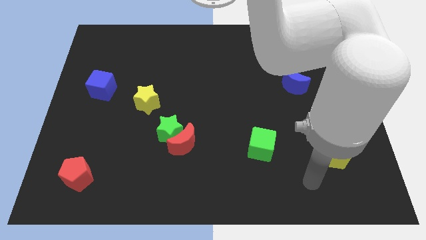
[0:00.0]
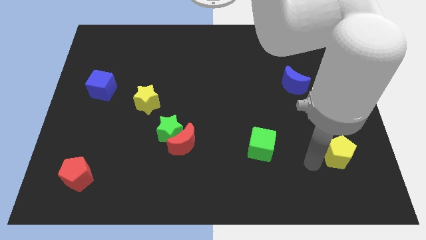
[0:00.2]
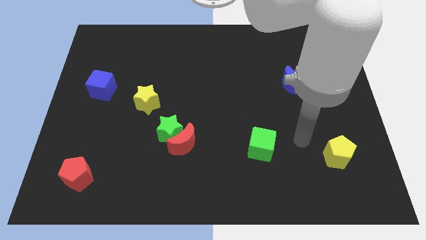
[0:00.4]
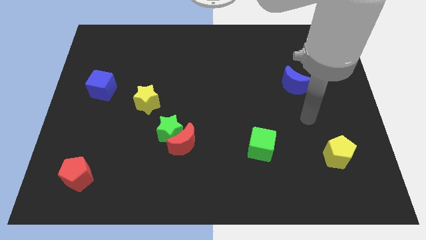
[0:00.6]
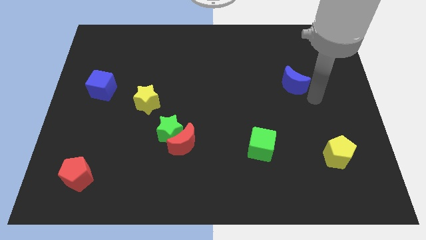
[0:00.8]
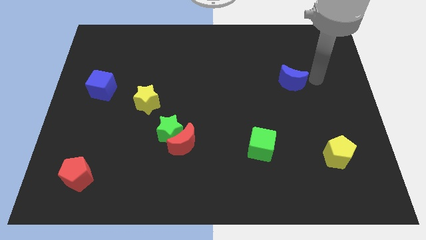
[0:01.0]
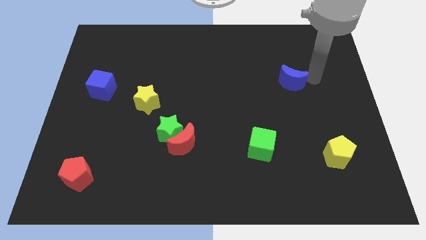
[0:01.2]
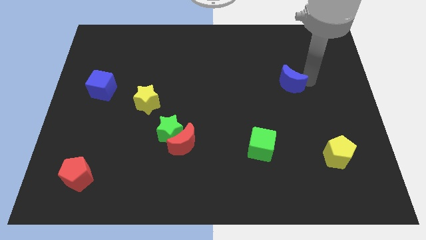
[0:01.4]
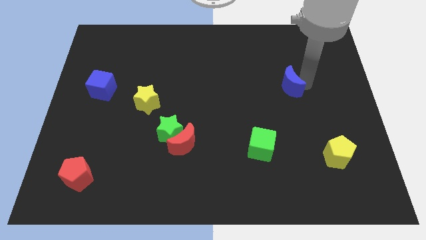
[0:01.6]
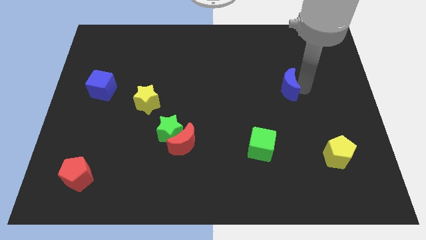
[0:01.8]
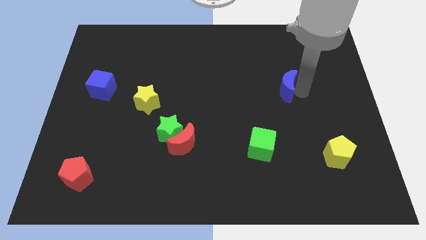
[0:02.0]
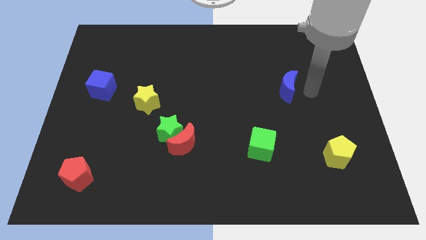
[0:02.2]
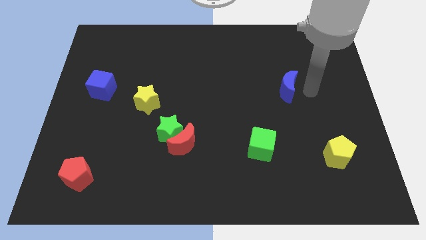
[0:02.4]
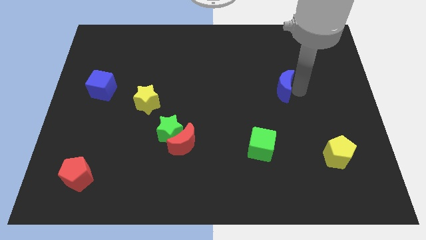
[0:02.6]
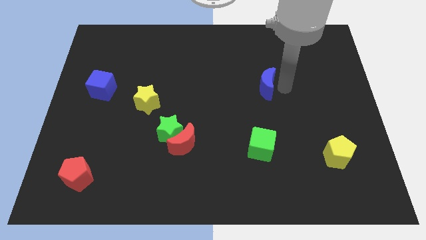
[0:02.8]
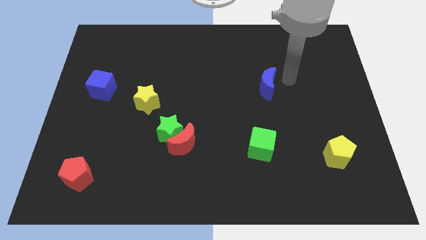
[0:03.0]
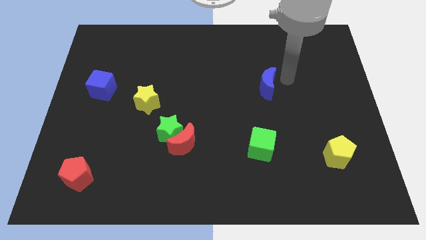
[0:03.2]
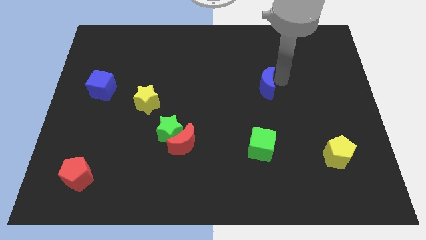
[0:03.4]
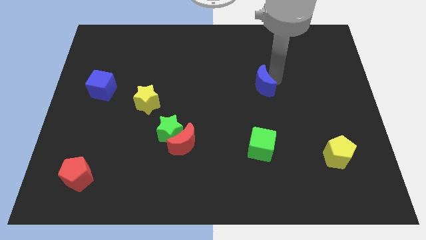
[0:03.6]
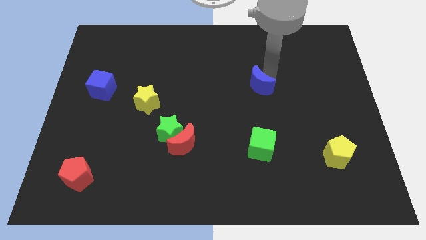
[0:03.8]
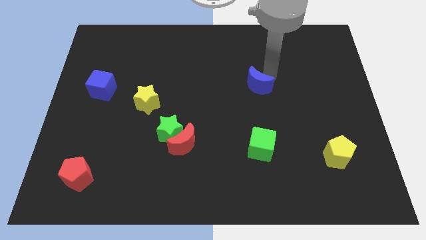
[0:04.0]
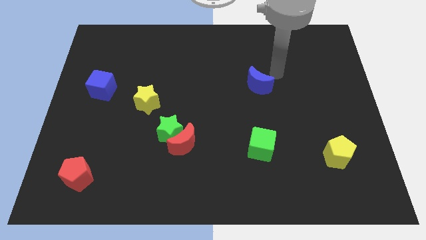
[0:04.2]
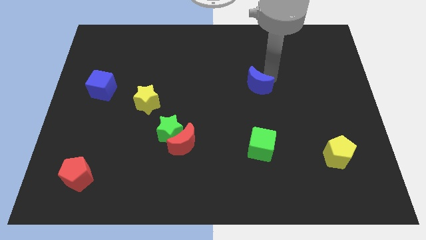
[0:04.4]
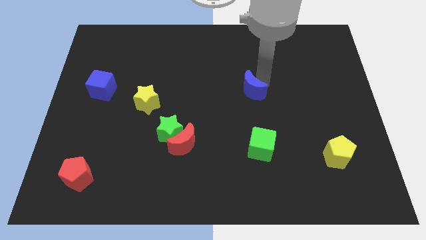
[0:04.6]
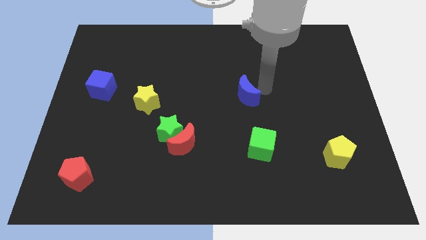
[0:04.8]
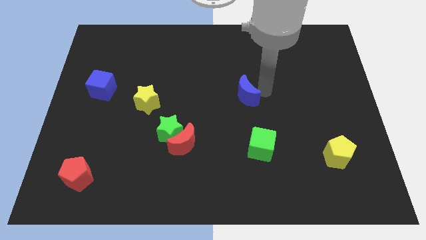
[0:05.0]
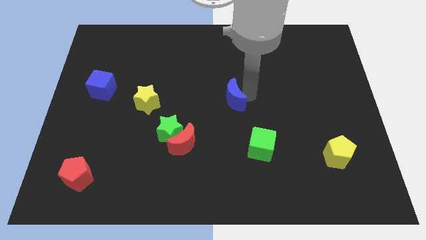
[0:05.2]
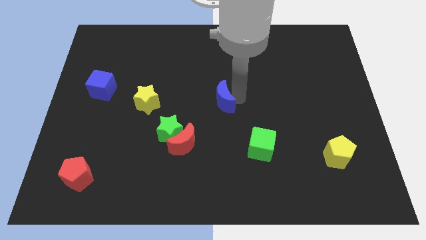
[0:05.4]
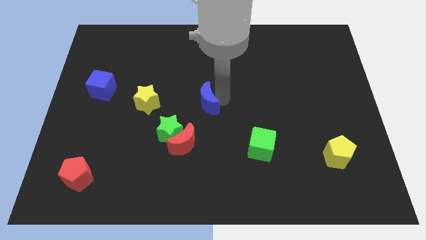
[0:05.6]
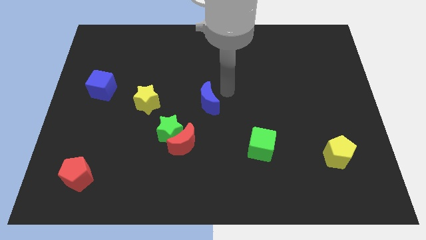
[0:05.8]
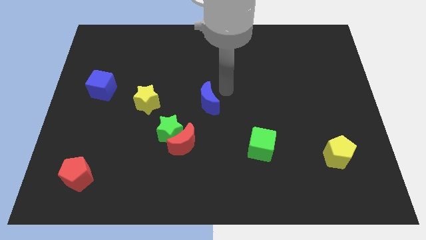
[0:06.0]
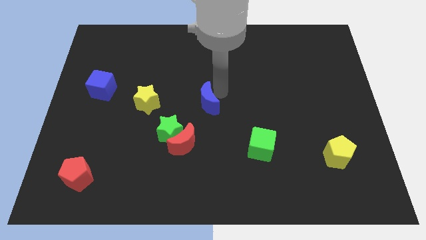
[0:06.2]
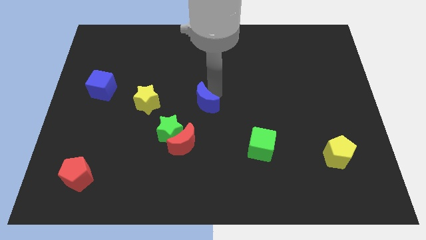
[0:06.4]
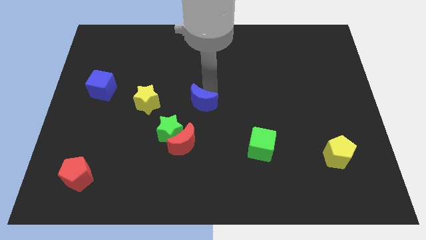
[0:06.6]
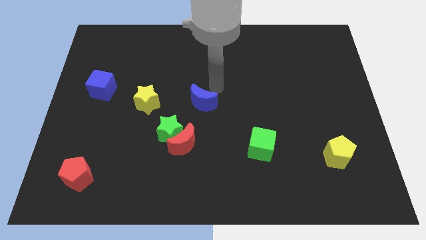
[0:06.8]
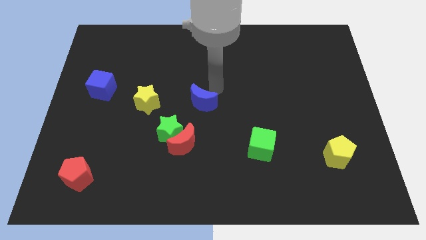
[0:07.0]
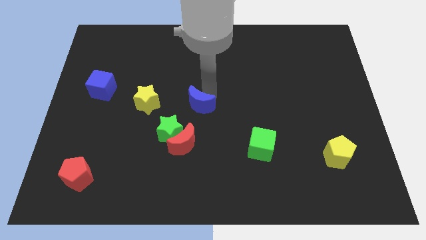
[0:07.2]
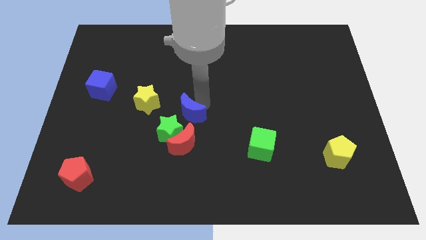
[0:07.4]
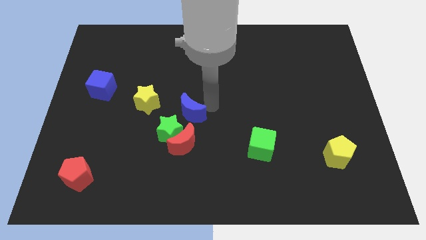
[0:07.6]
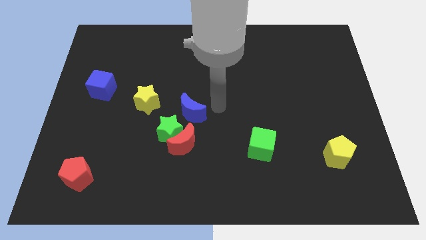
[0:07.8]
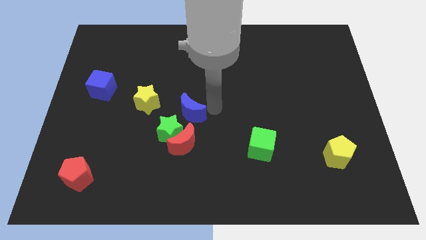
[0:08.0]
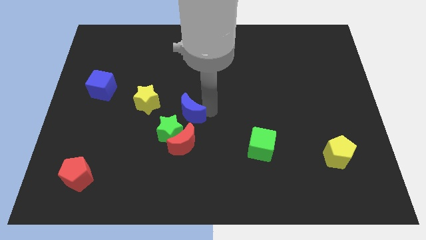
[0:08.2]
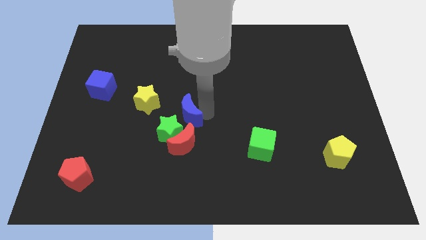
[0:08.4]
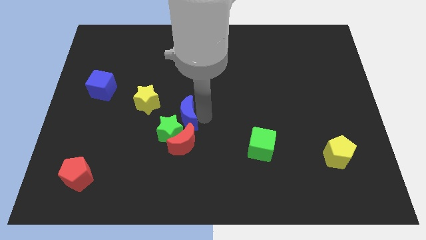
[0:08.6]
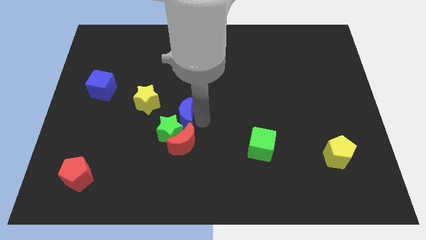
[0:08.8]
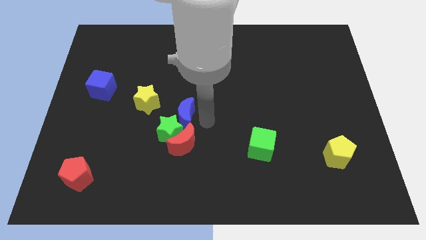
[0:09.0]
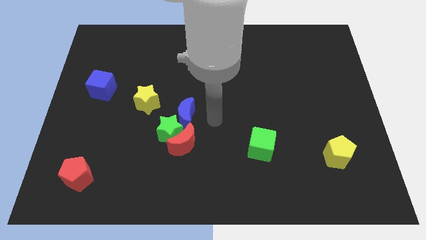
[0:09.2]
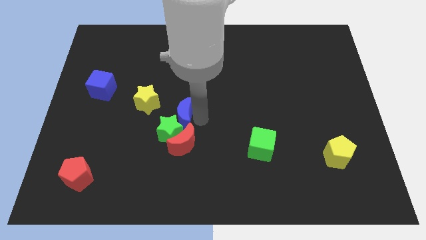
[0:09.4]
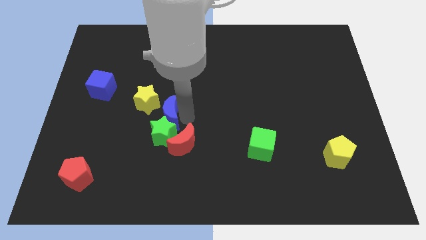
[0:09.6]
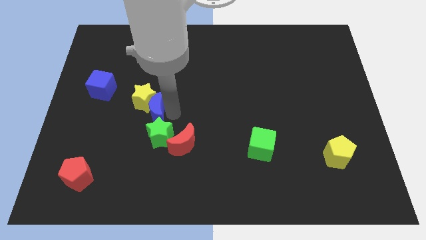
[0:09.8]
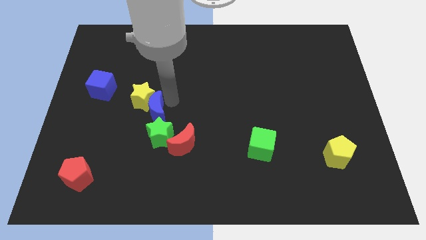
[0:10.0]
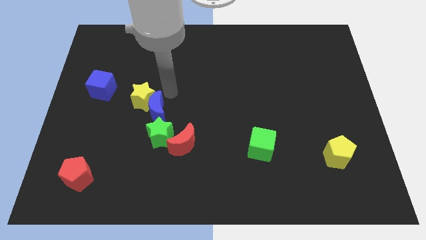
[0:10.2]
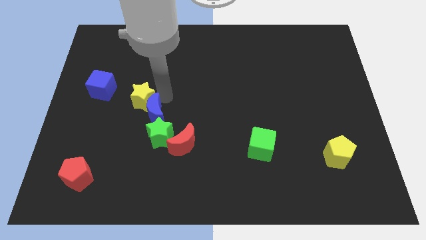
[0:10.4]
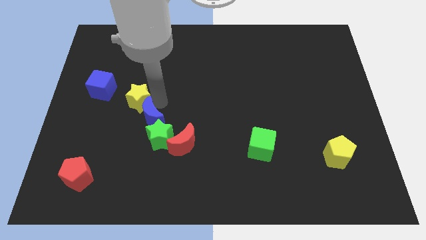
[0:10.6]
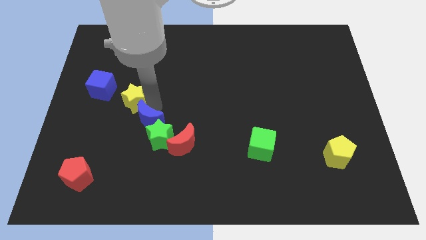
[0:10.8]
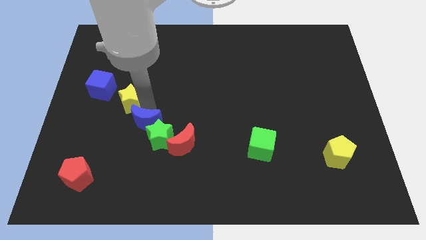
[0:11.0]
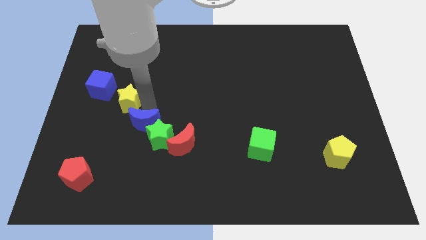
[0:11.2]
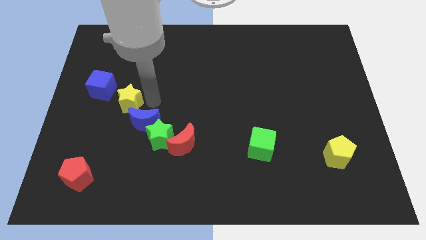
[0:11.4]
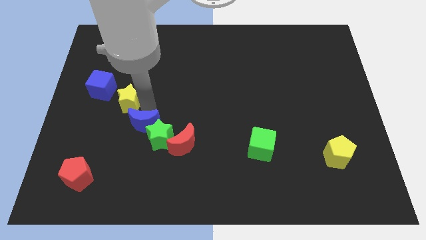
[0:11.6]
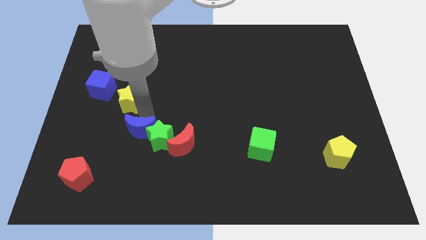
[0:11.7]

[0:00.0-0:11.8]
push the blue moon just left of the red moon

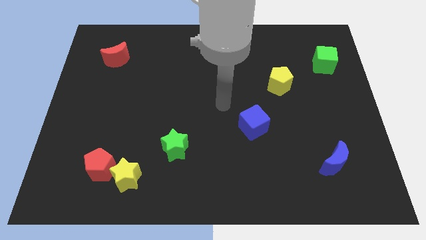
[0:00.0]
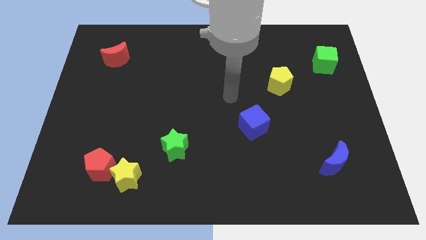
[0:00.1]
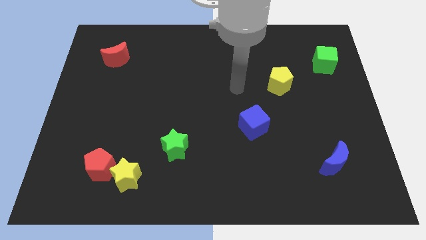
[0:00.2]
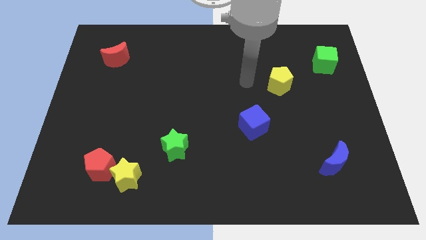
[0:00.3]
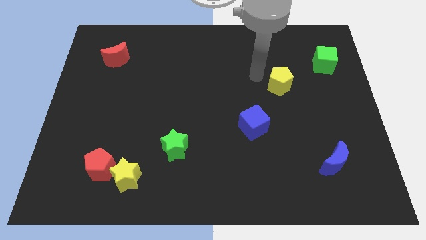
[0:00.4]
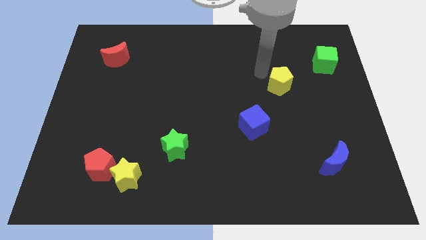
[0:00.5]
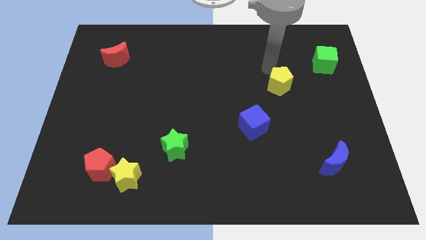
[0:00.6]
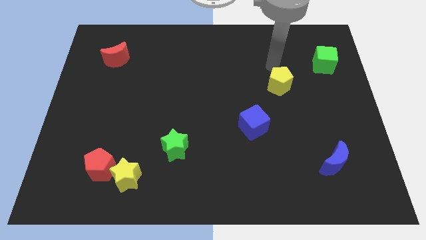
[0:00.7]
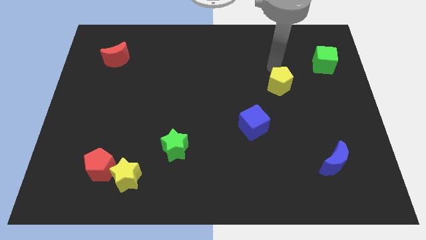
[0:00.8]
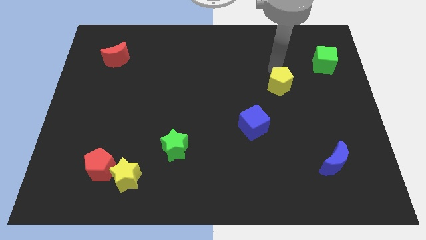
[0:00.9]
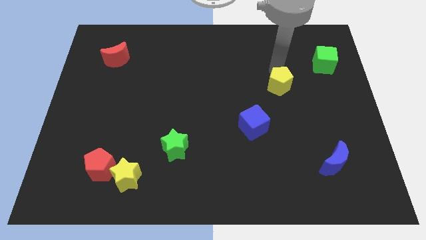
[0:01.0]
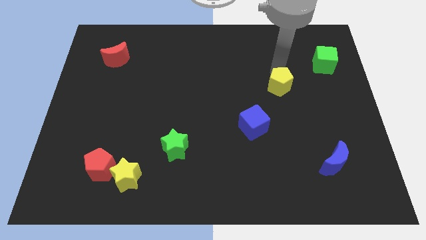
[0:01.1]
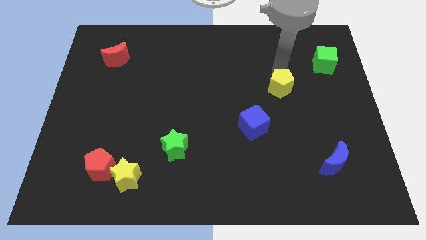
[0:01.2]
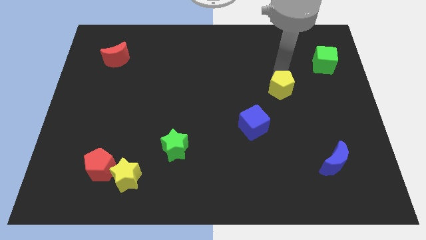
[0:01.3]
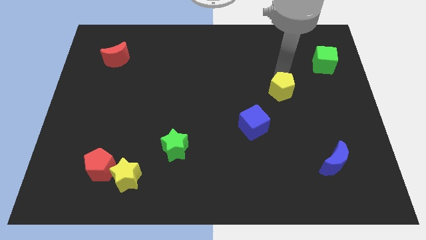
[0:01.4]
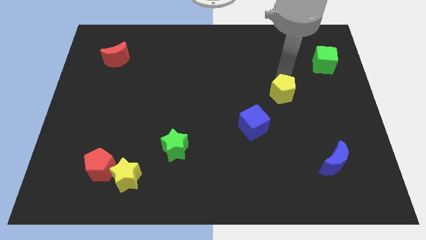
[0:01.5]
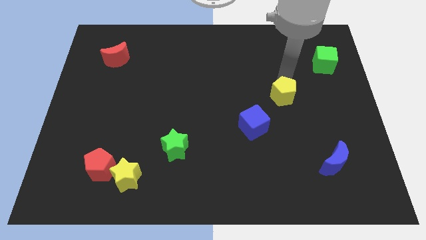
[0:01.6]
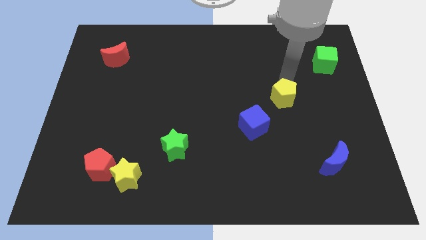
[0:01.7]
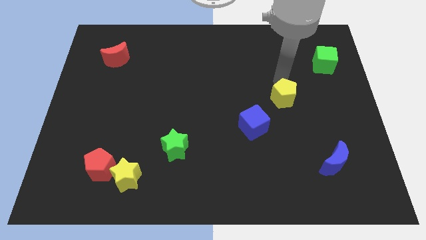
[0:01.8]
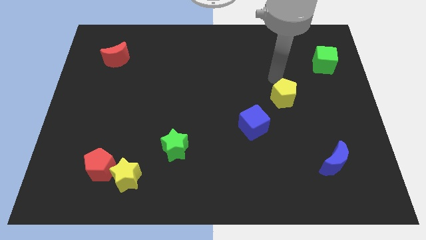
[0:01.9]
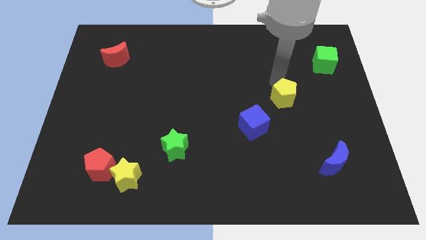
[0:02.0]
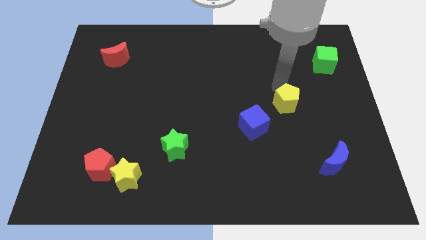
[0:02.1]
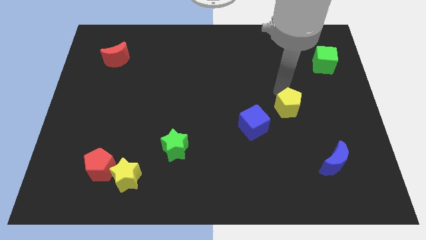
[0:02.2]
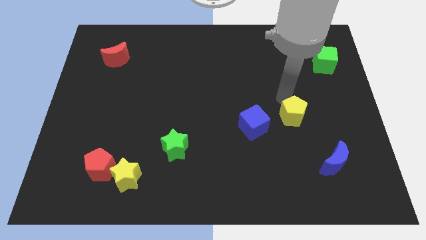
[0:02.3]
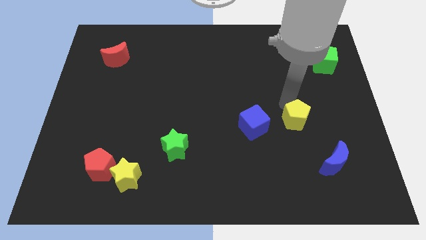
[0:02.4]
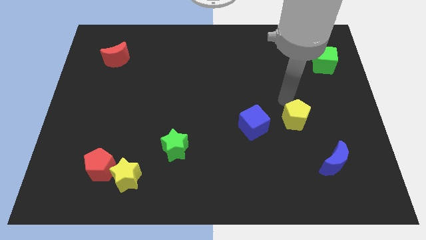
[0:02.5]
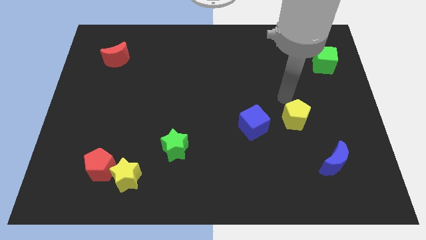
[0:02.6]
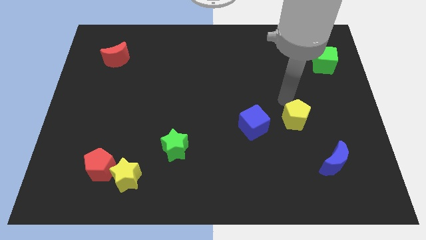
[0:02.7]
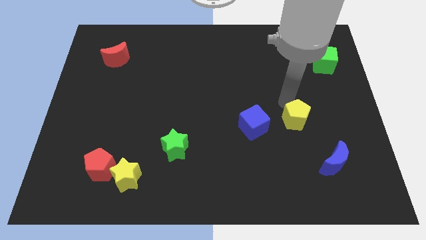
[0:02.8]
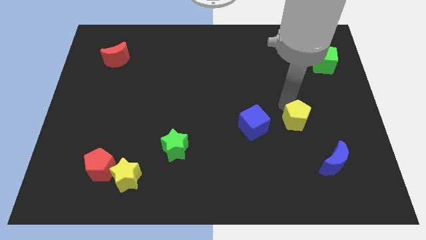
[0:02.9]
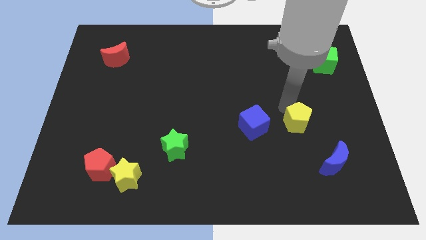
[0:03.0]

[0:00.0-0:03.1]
move the yellow pentagon diagonally up and to the left of the blue moon
